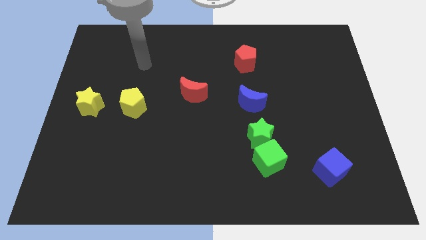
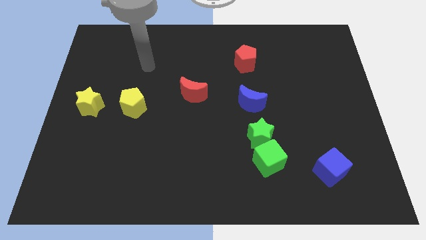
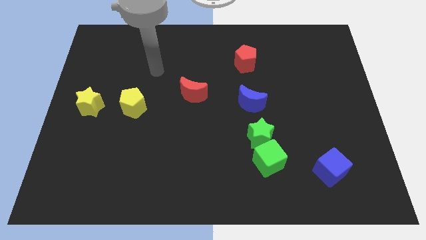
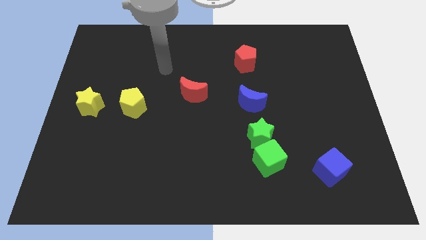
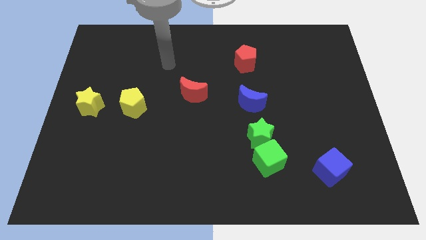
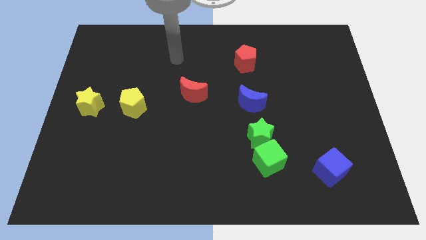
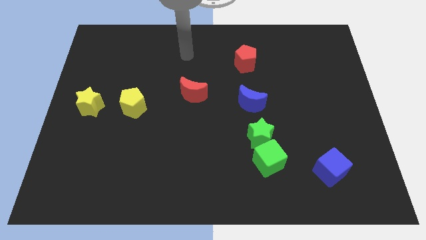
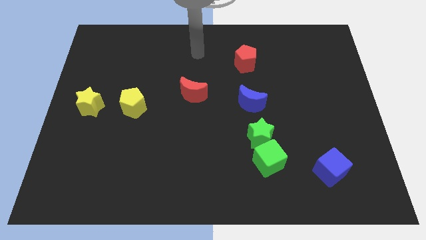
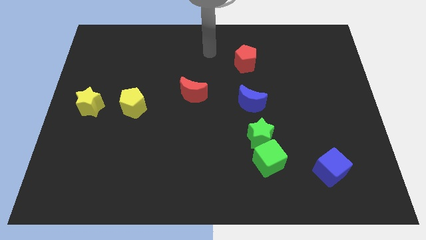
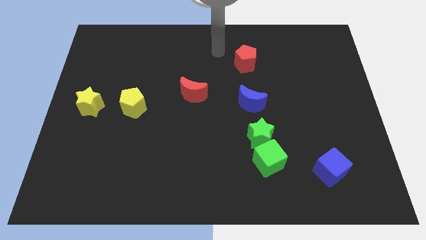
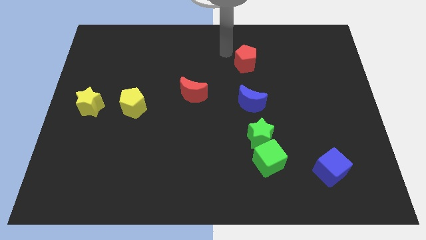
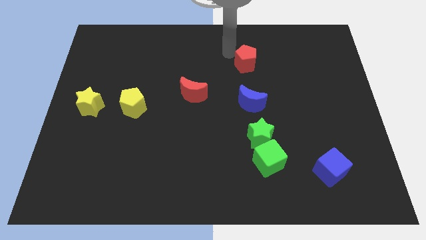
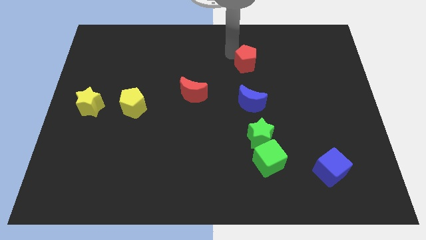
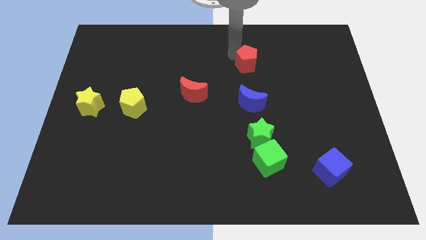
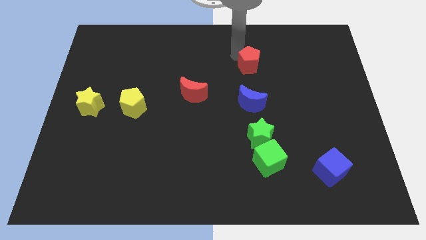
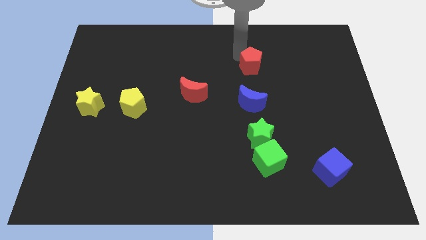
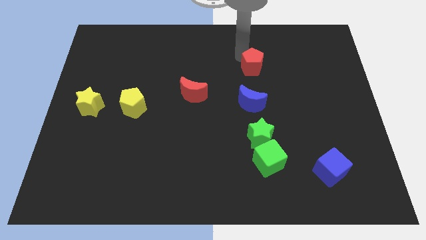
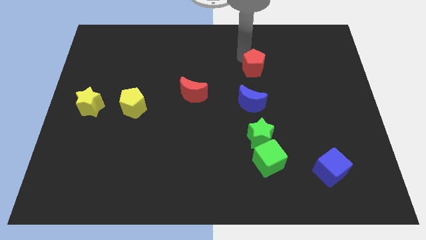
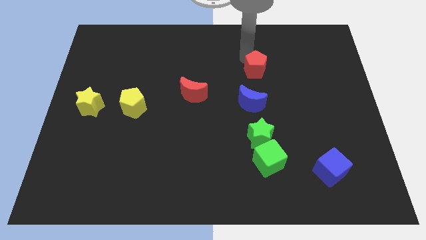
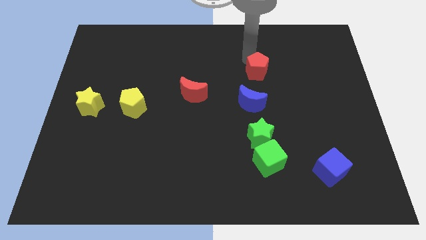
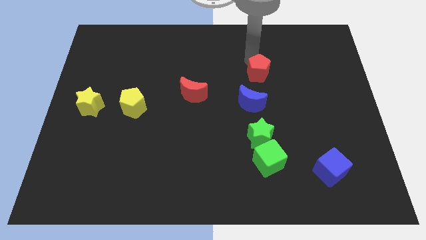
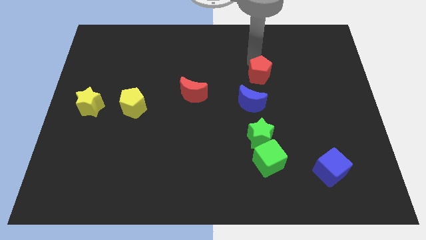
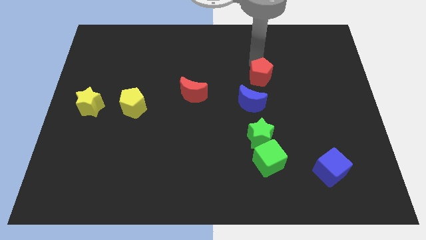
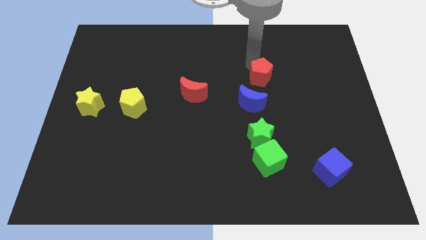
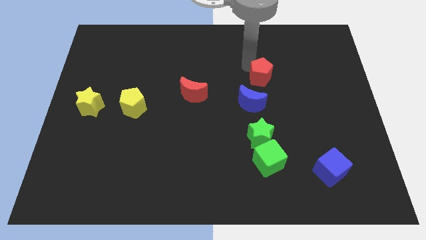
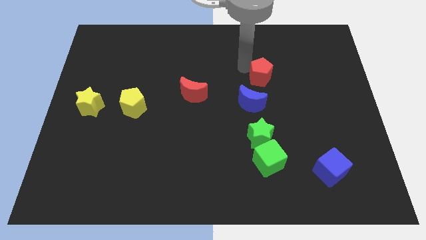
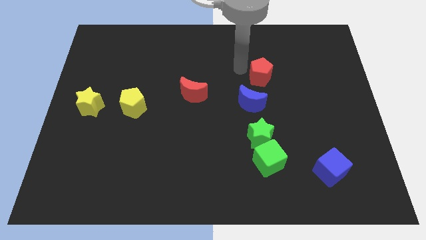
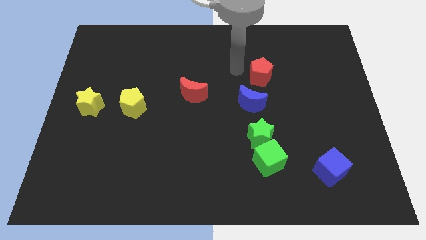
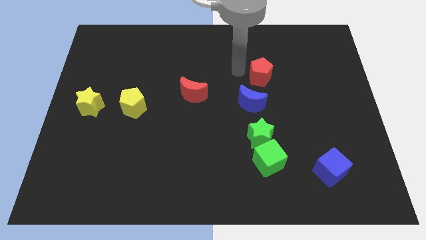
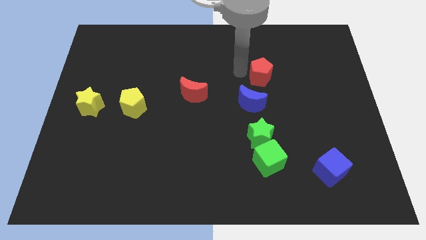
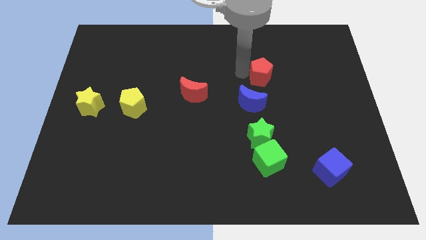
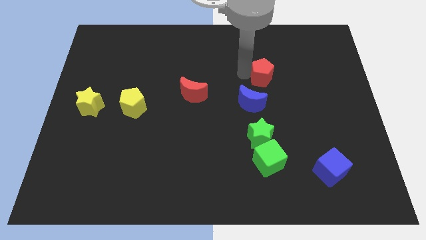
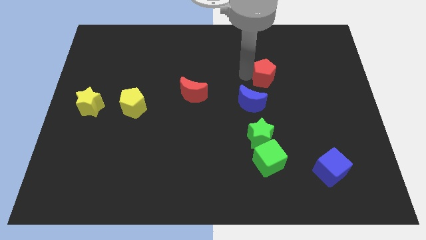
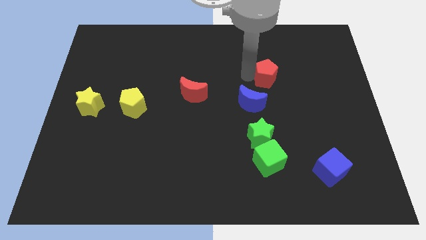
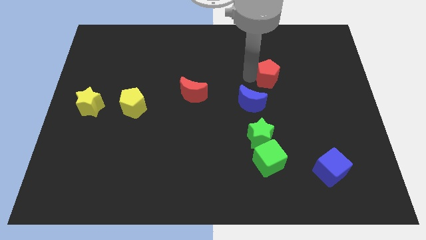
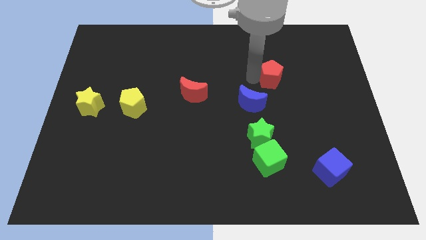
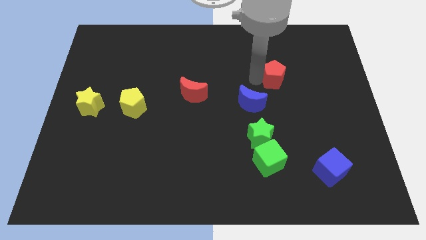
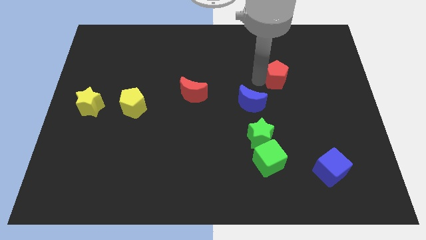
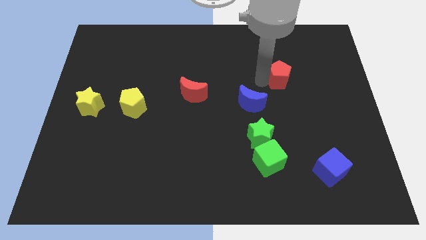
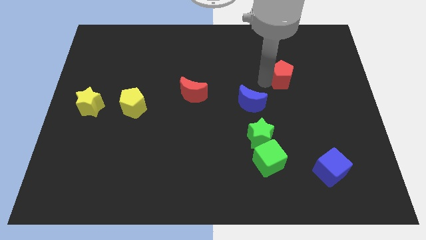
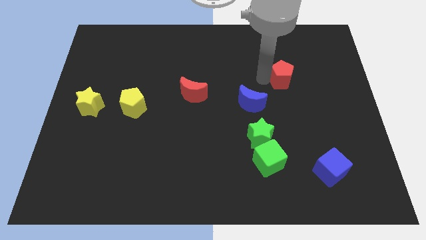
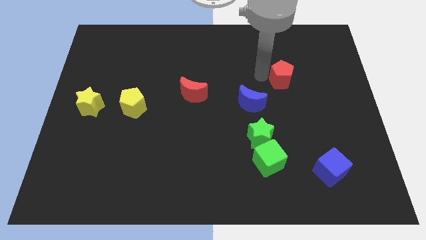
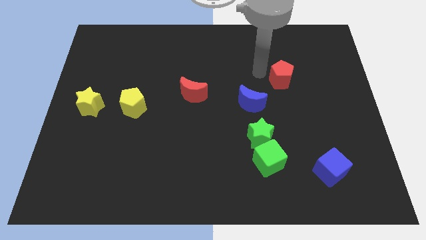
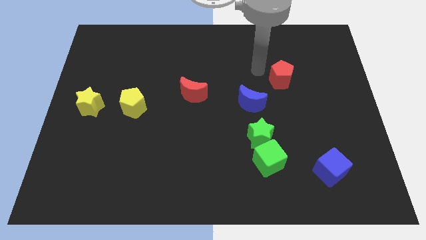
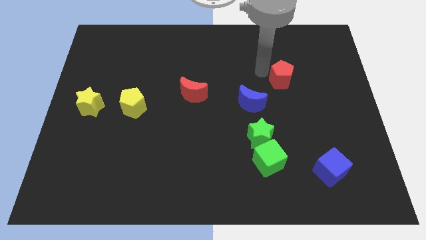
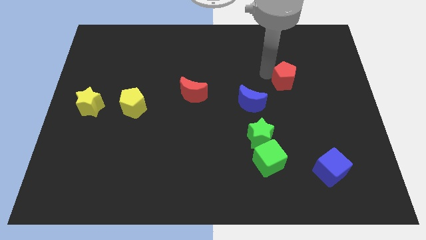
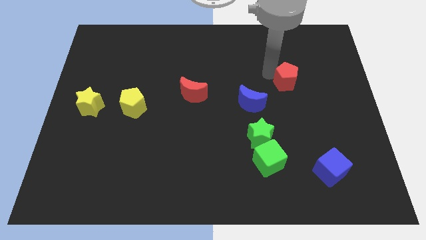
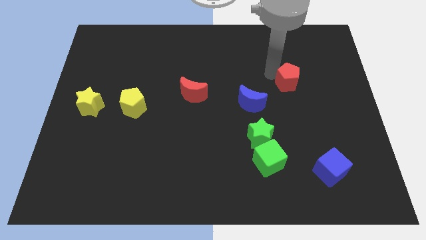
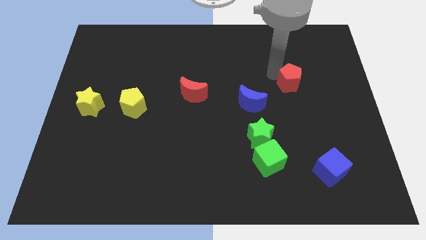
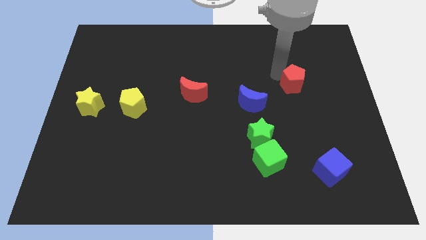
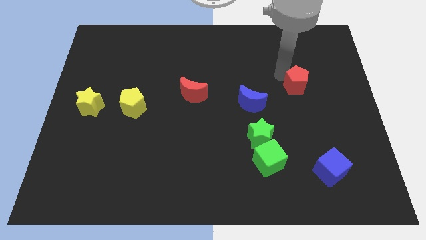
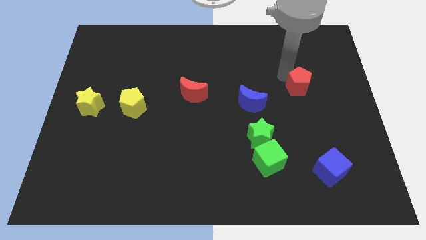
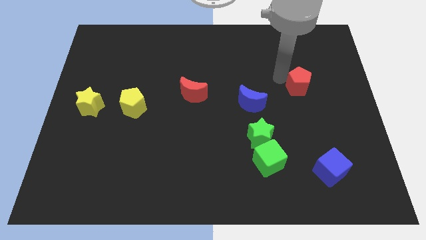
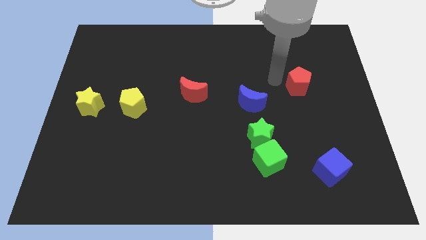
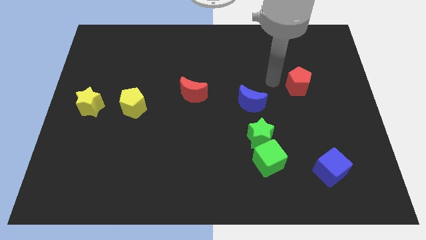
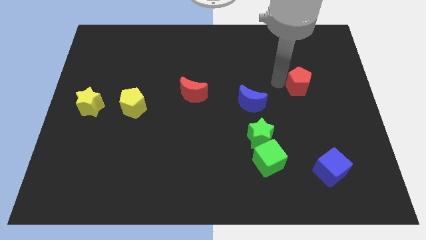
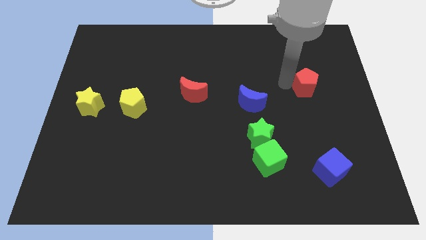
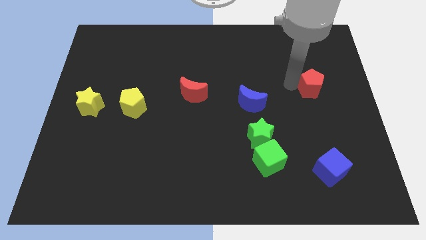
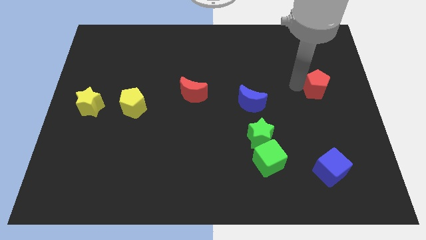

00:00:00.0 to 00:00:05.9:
slide the red pentagon to the right side

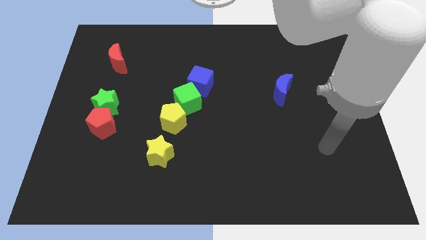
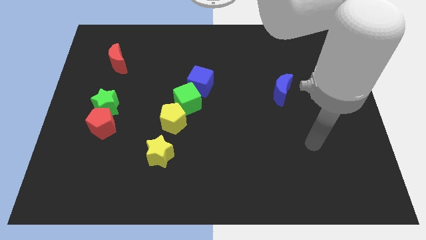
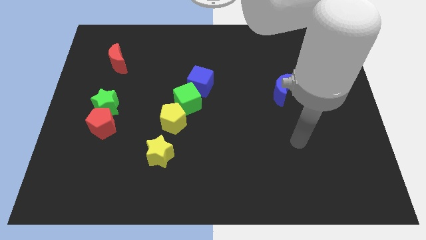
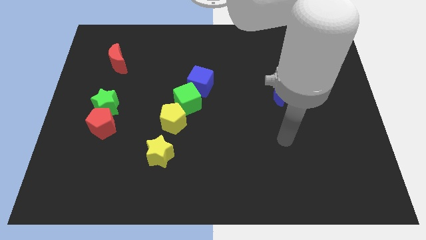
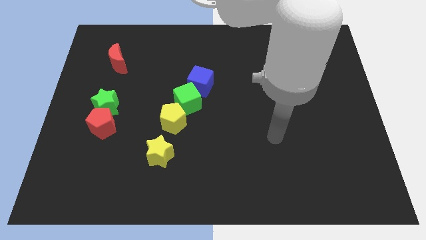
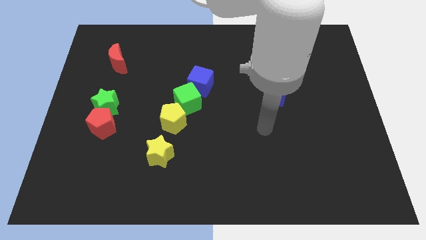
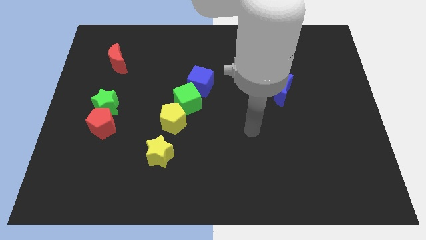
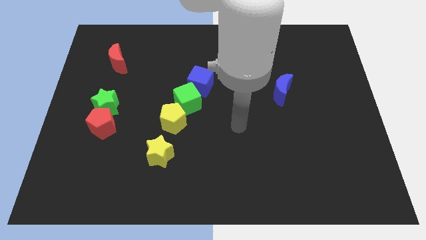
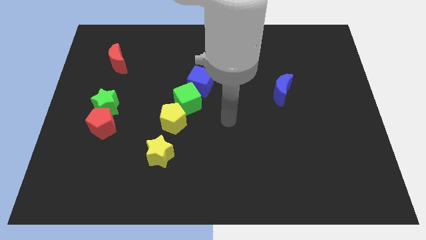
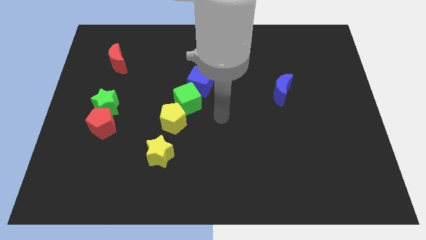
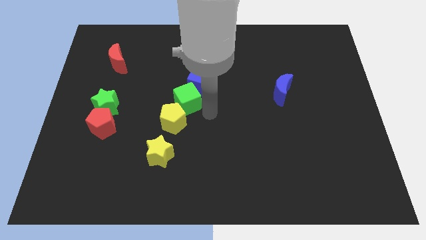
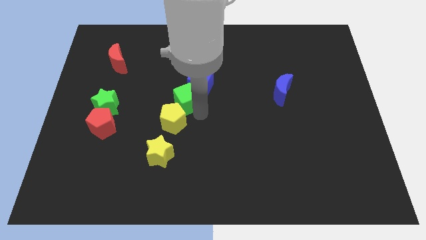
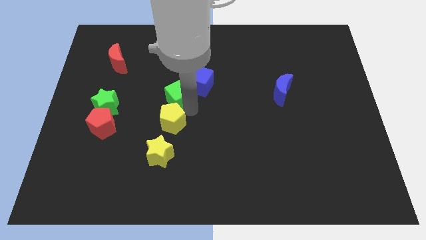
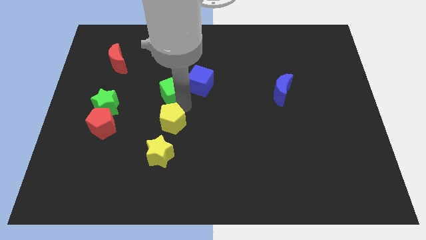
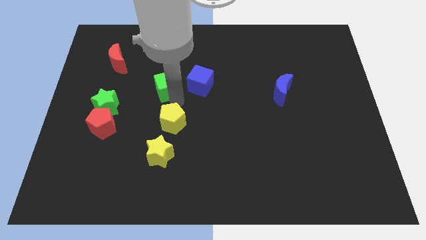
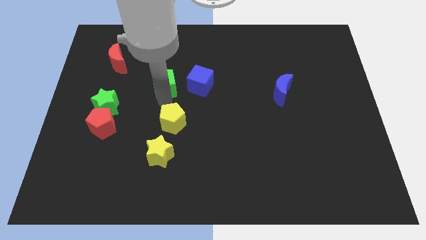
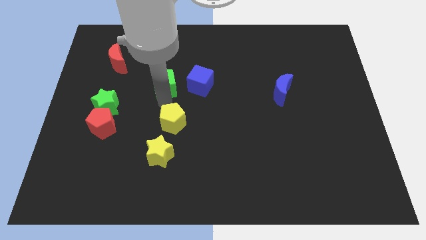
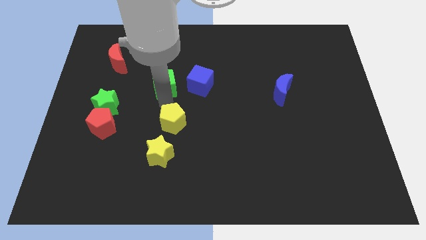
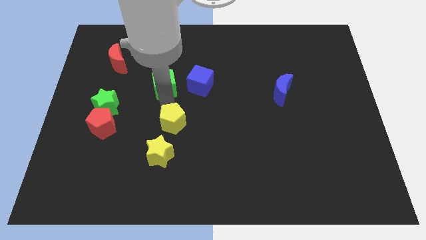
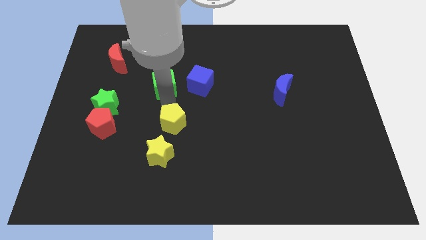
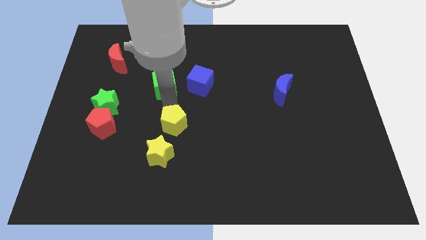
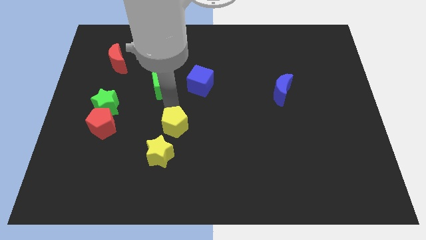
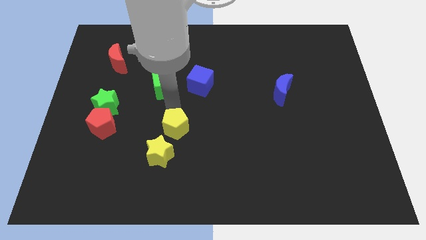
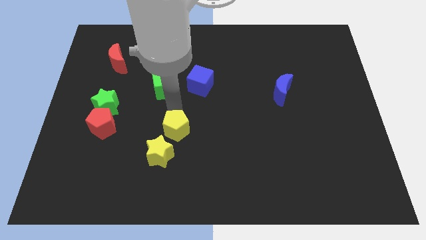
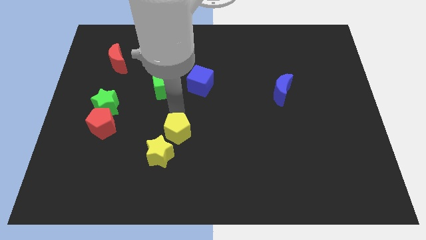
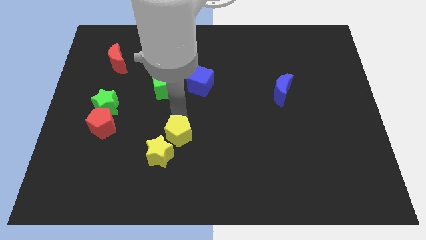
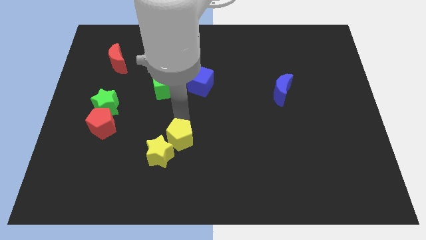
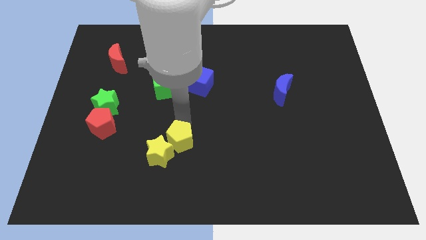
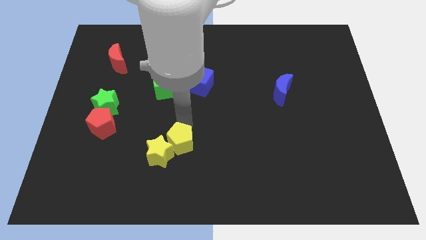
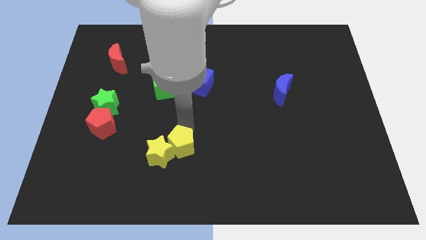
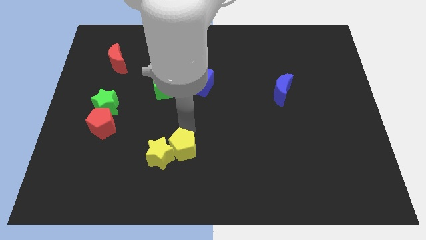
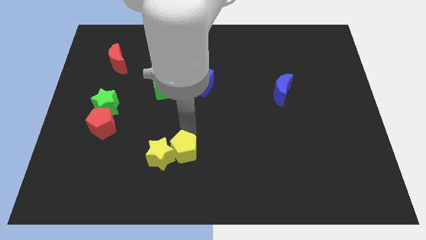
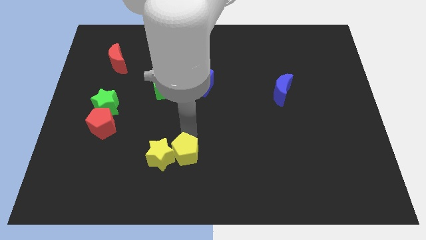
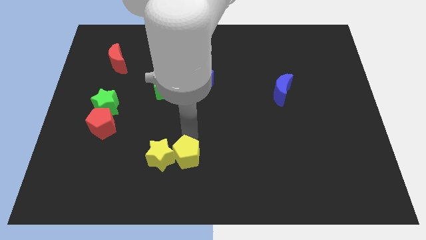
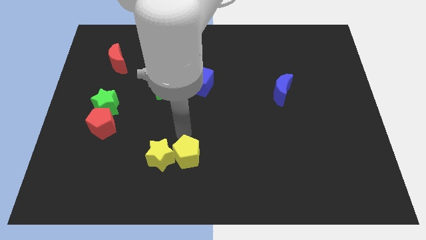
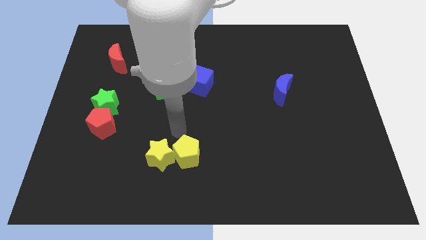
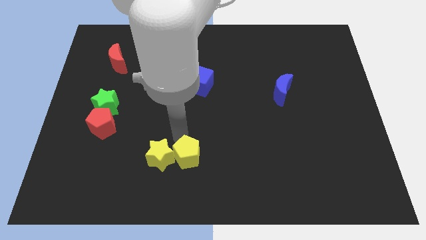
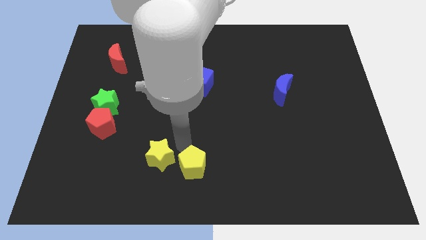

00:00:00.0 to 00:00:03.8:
push the yellow pentagon to the bottom side
